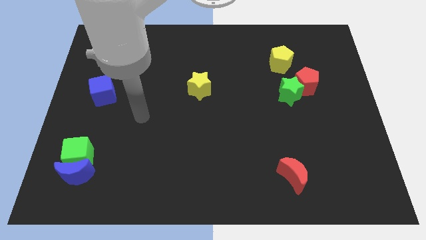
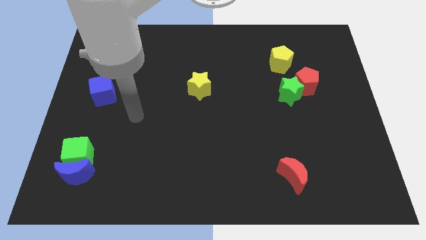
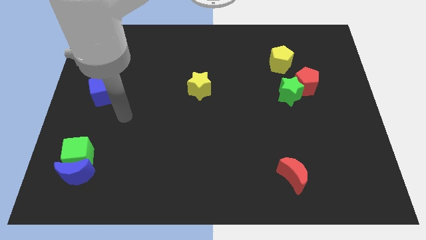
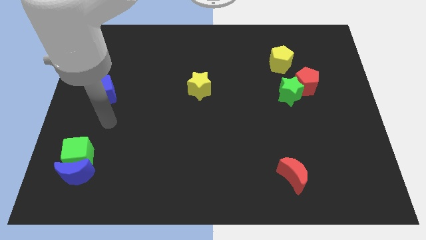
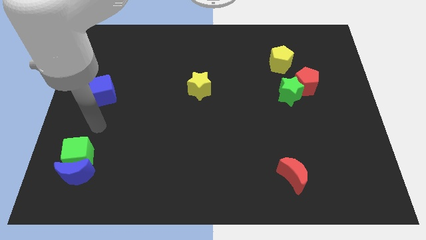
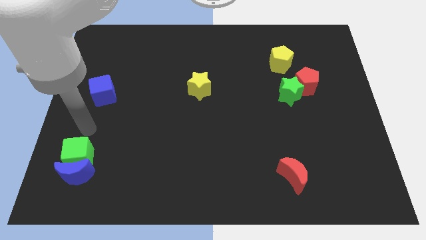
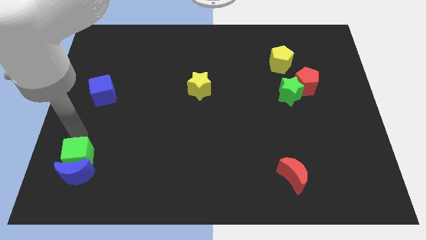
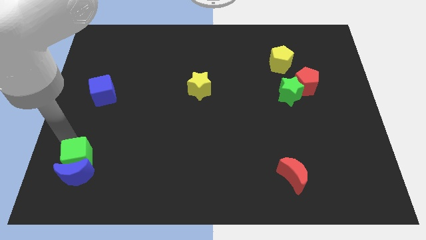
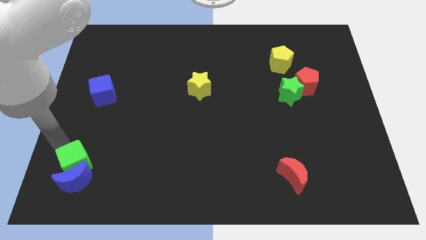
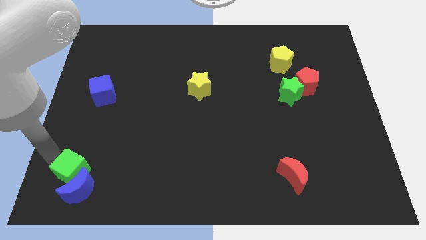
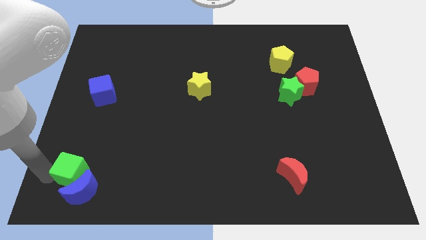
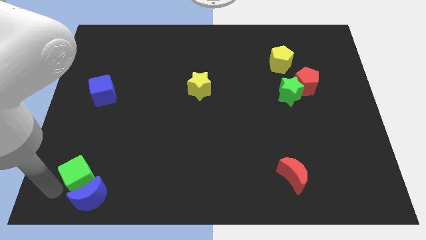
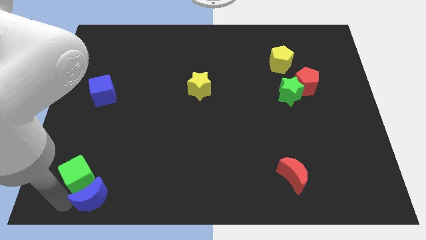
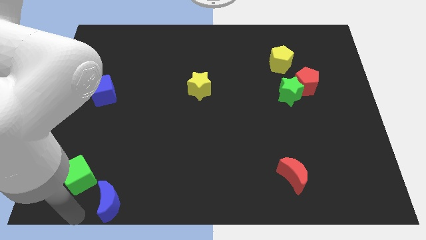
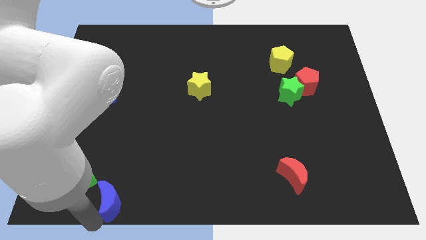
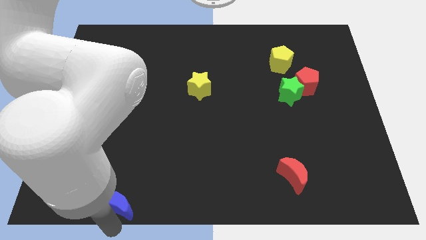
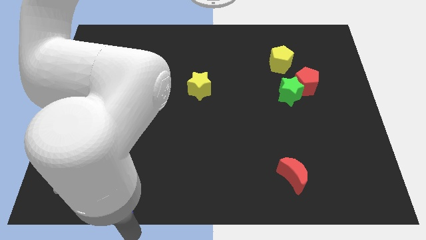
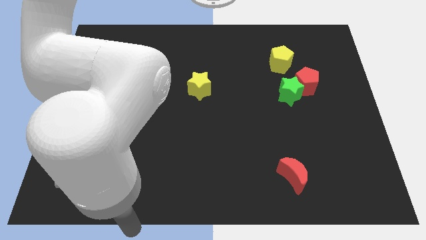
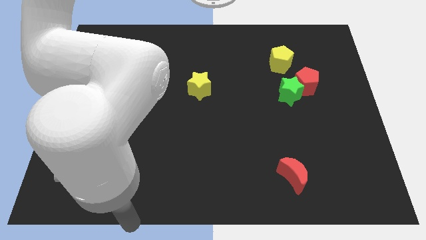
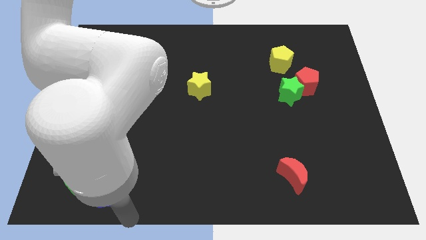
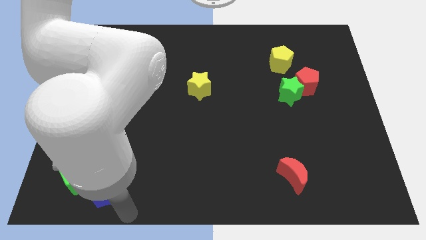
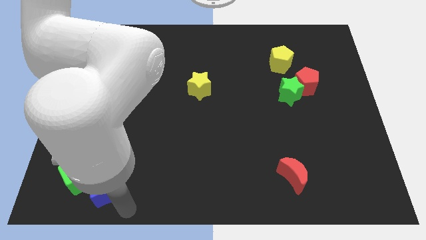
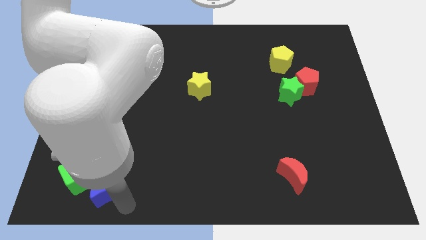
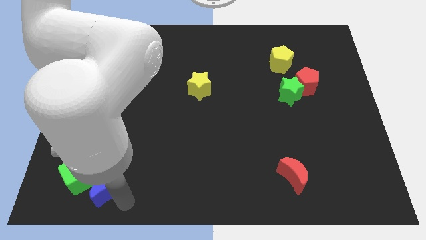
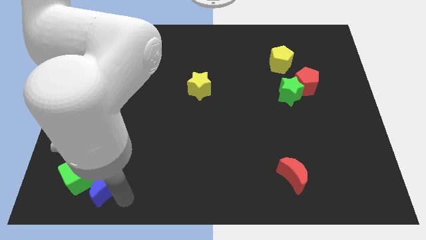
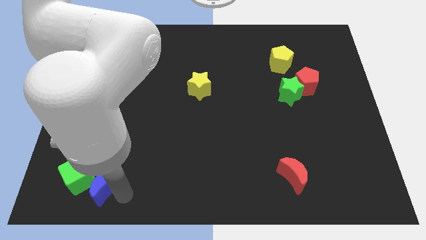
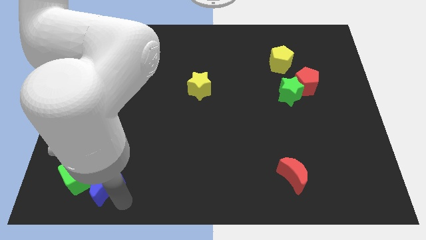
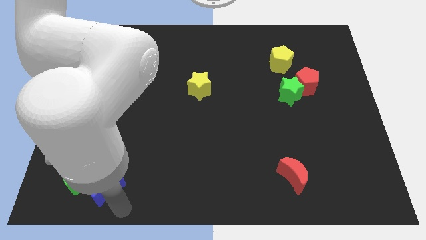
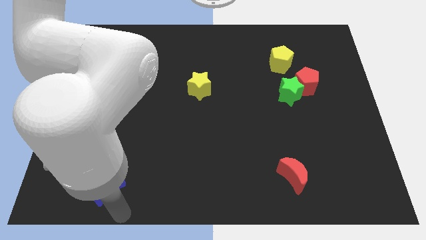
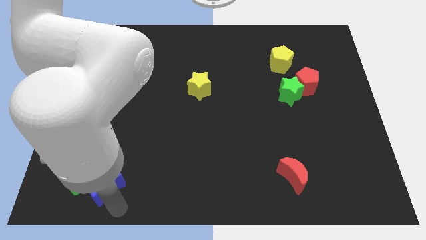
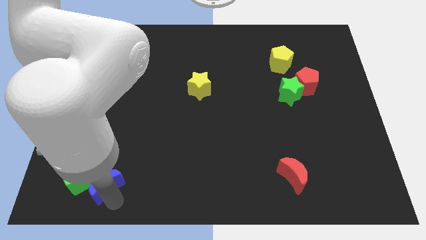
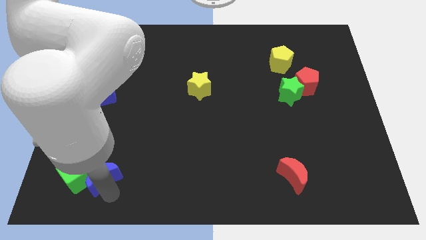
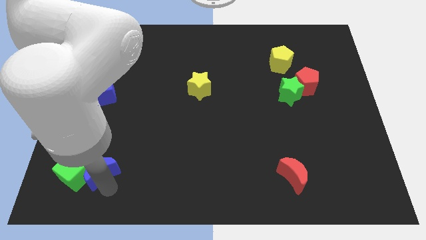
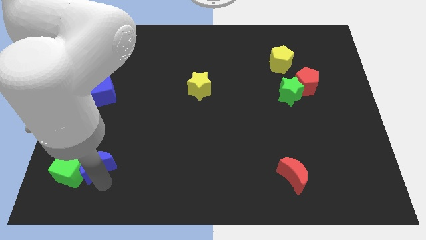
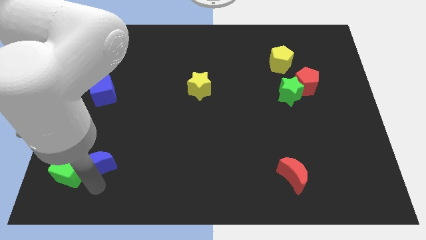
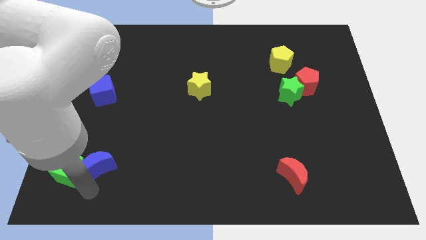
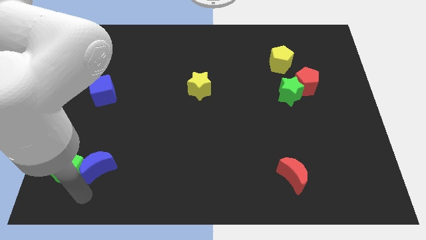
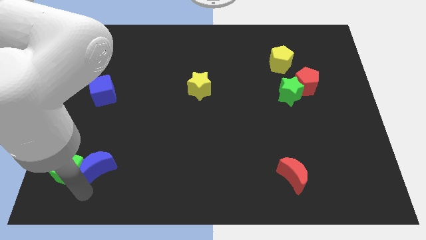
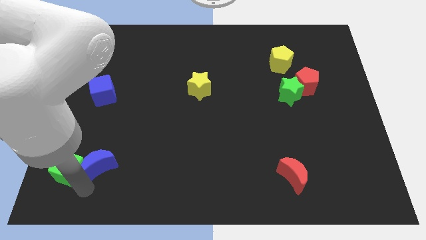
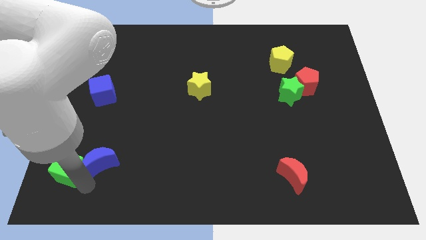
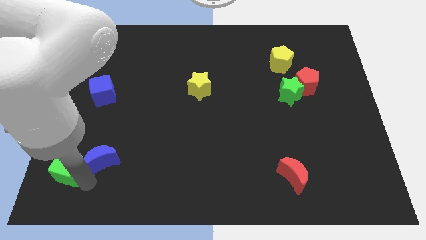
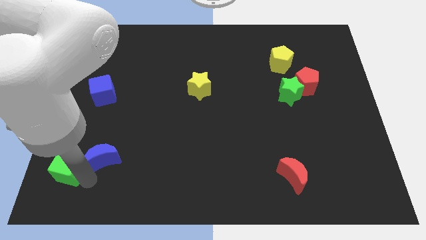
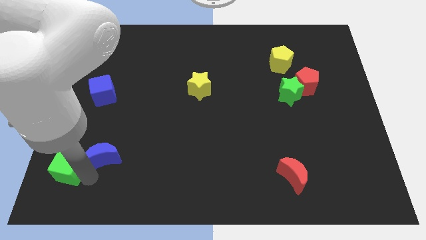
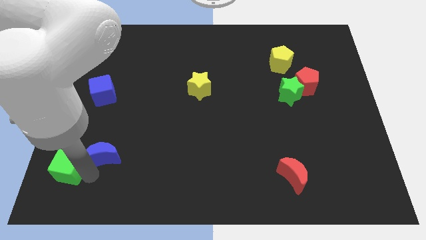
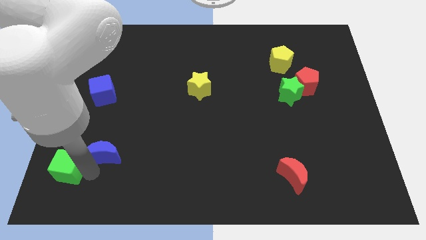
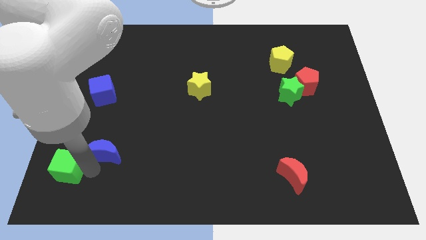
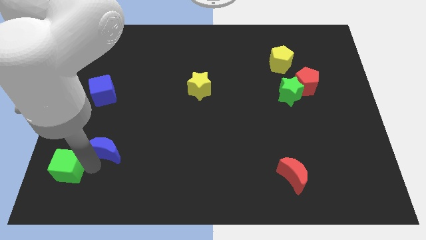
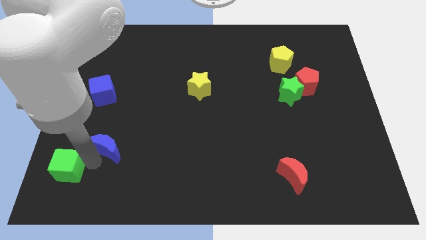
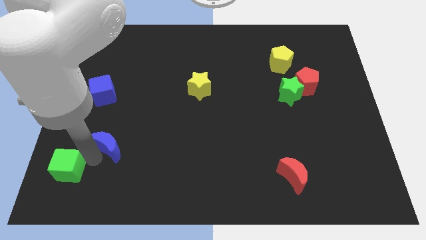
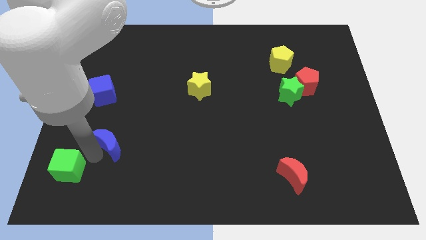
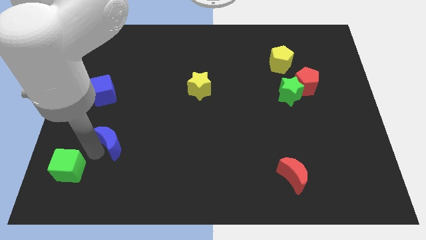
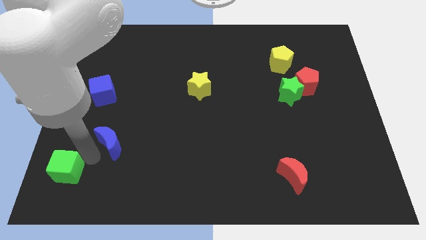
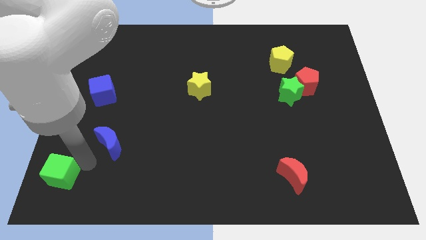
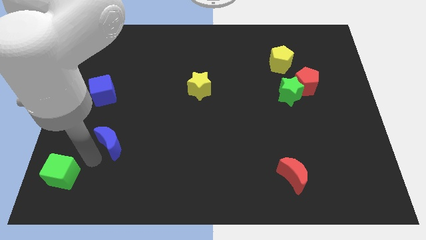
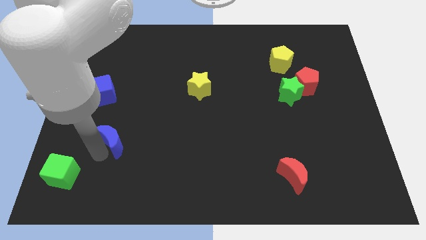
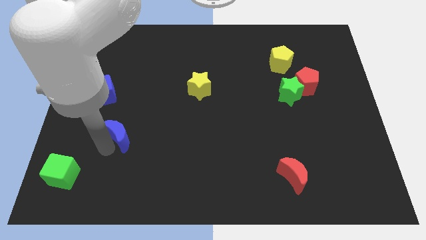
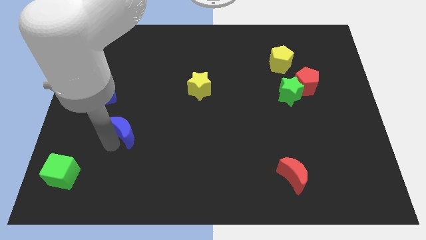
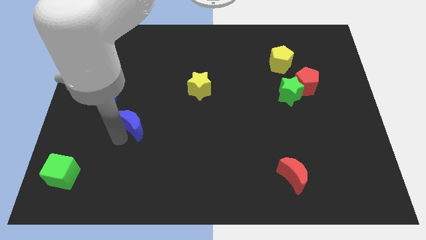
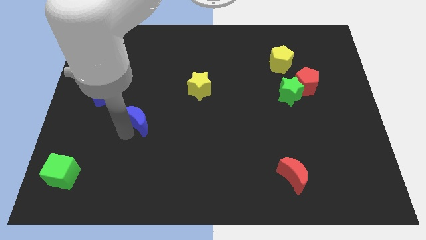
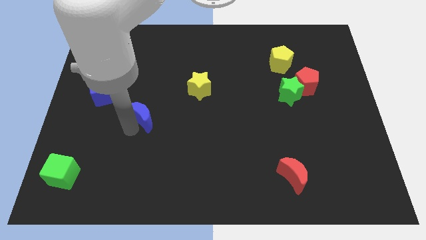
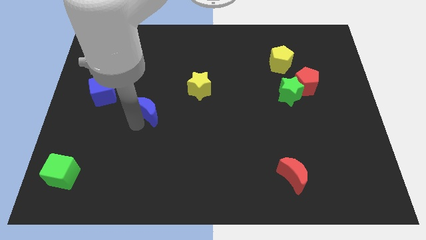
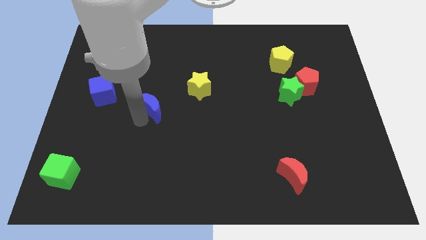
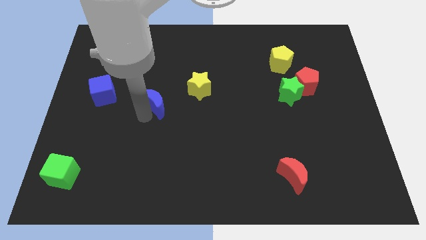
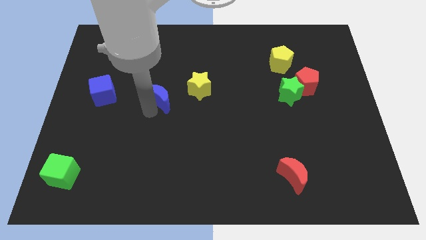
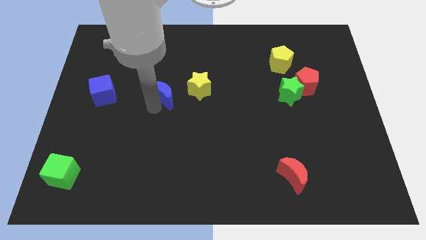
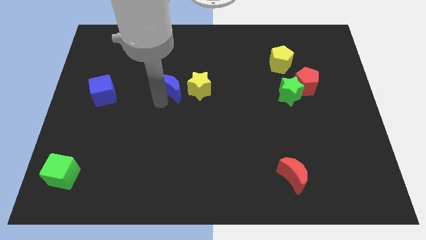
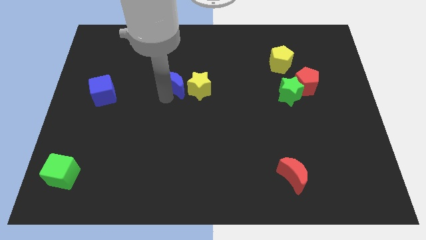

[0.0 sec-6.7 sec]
slide the blue moon to the top left side of the yellow star
